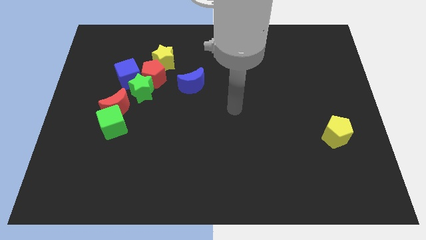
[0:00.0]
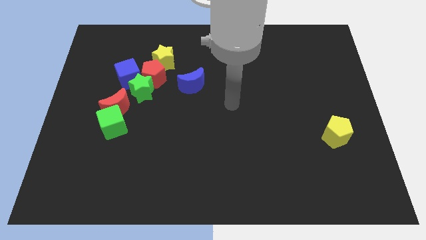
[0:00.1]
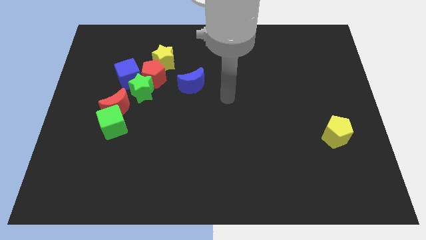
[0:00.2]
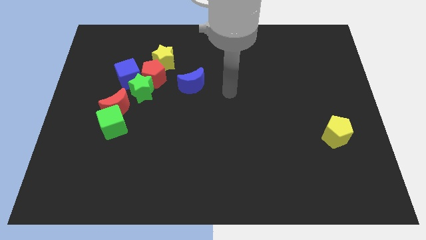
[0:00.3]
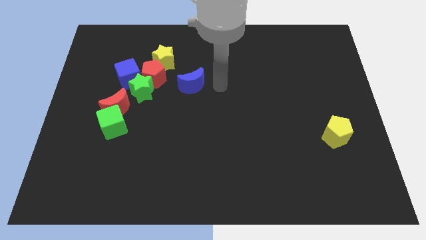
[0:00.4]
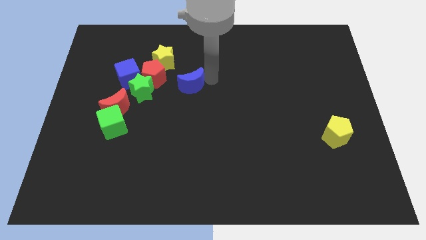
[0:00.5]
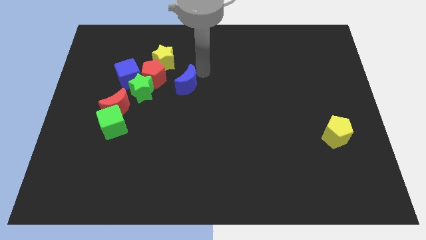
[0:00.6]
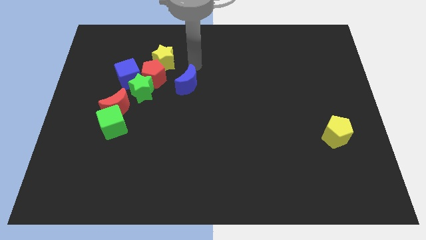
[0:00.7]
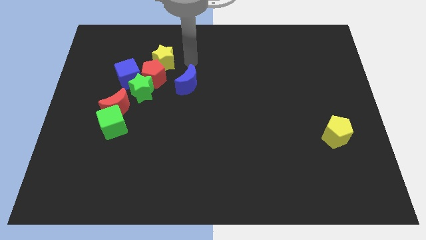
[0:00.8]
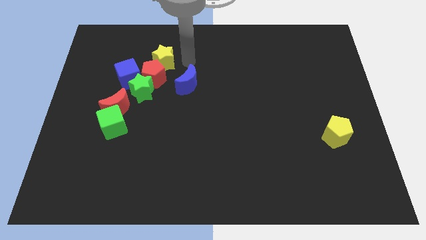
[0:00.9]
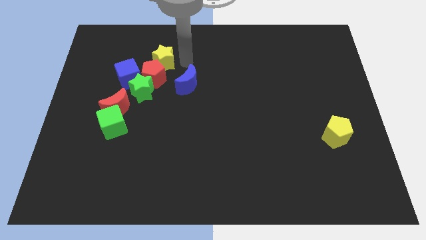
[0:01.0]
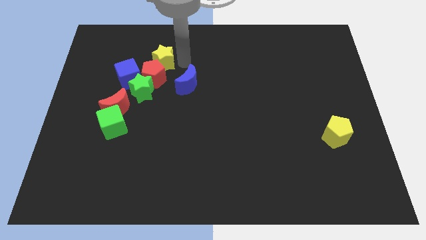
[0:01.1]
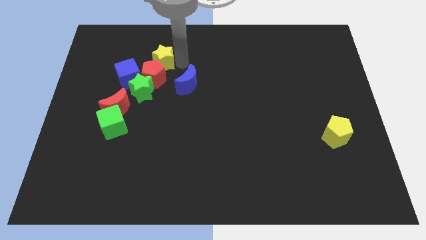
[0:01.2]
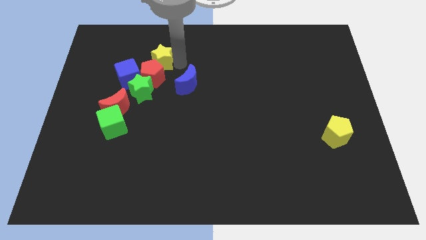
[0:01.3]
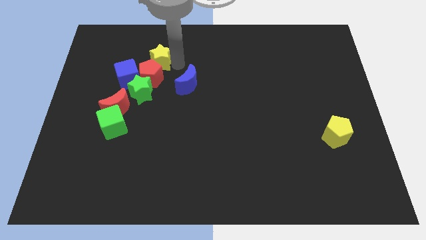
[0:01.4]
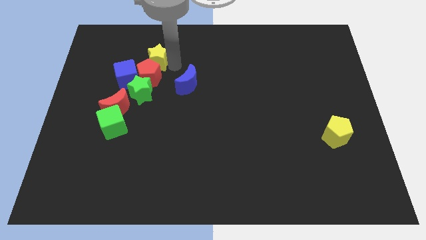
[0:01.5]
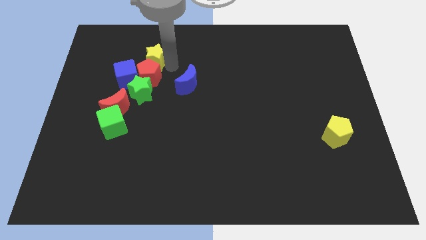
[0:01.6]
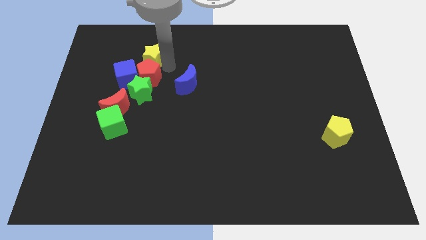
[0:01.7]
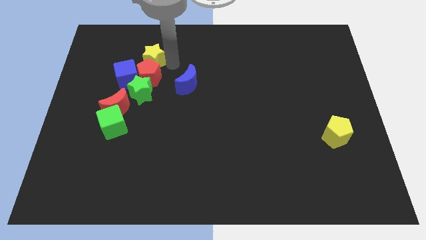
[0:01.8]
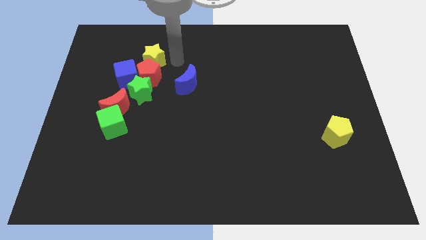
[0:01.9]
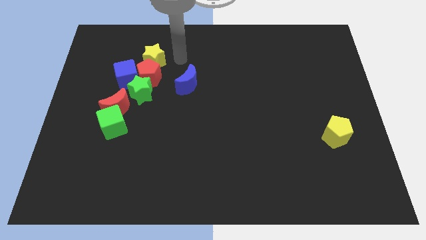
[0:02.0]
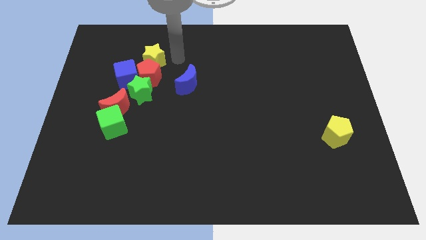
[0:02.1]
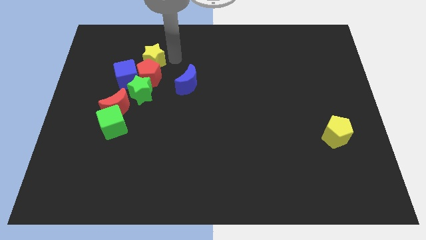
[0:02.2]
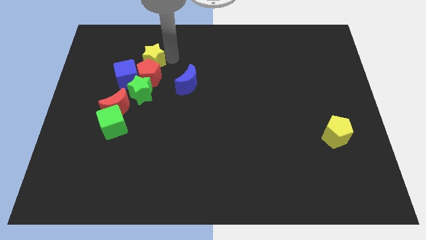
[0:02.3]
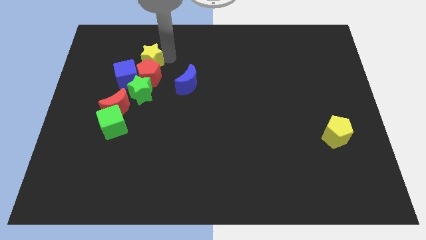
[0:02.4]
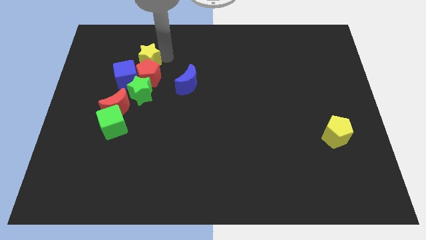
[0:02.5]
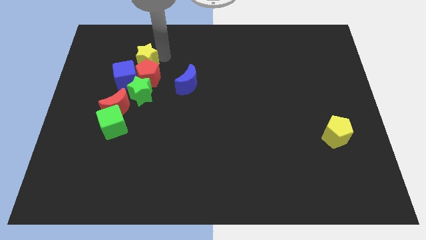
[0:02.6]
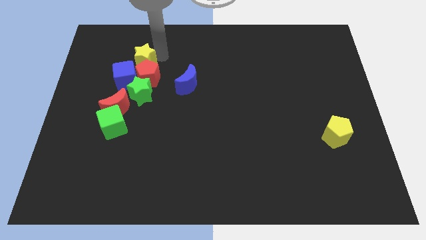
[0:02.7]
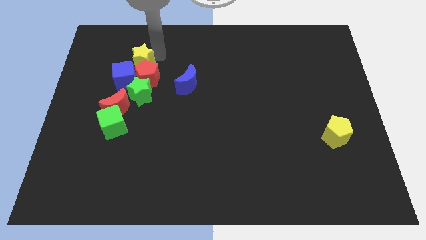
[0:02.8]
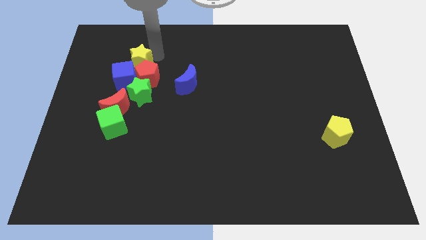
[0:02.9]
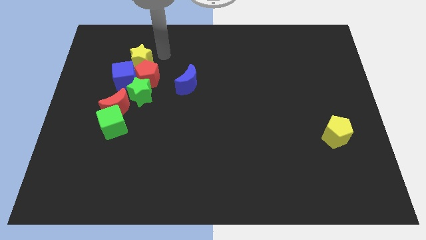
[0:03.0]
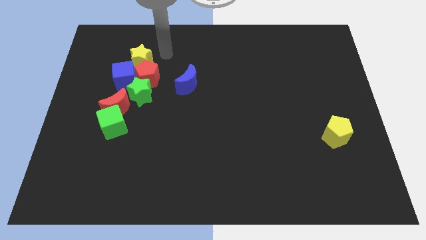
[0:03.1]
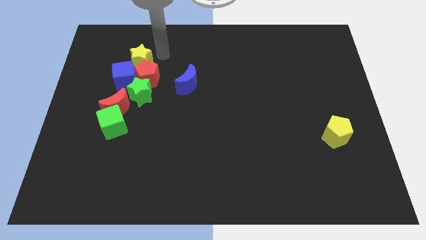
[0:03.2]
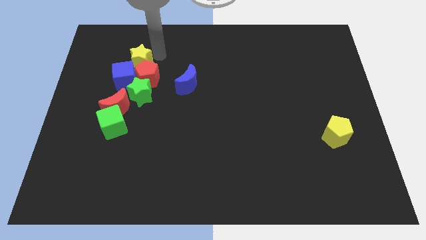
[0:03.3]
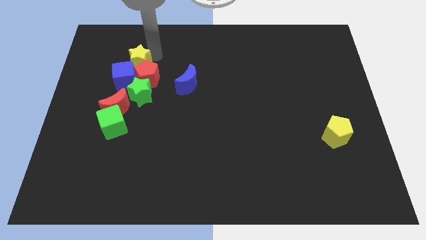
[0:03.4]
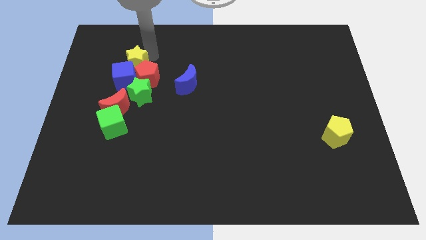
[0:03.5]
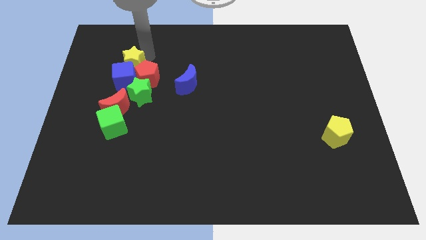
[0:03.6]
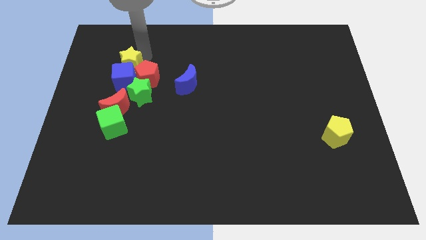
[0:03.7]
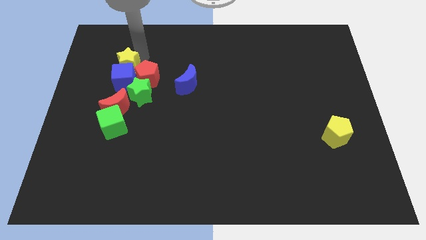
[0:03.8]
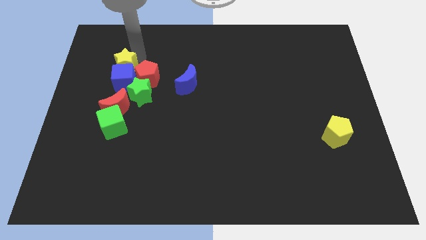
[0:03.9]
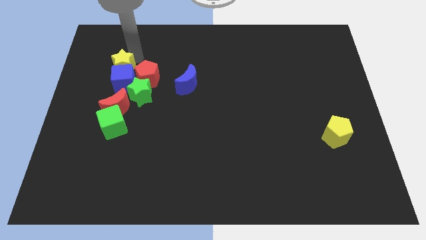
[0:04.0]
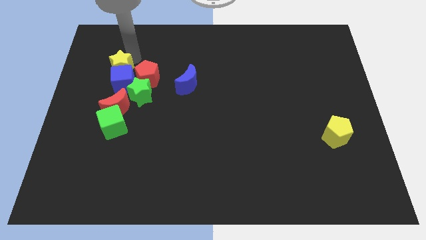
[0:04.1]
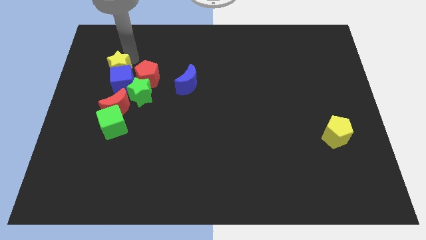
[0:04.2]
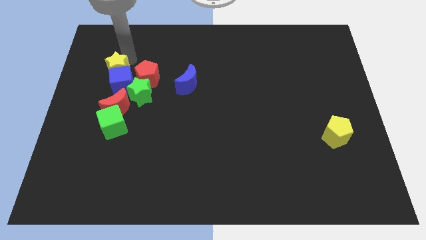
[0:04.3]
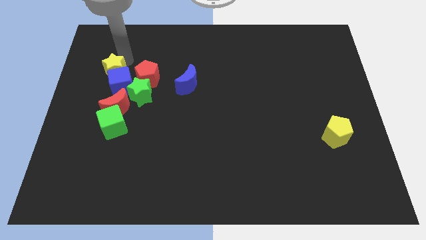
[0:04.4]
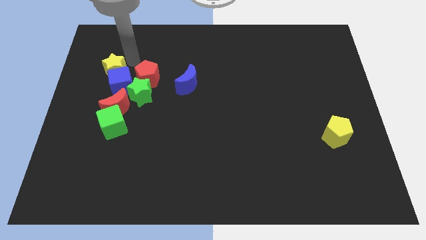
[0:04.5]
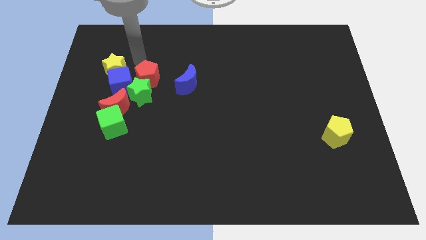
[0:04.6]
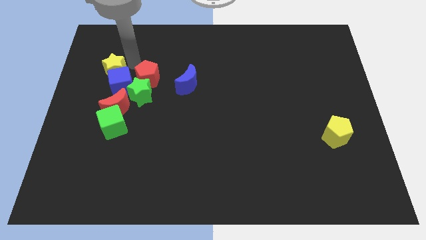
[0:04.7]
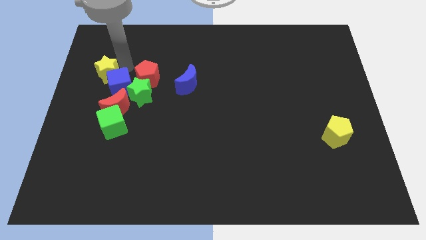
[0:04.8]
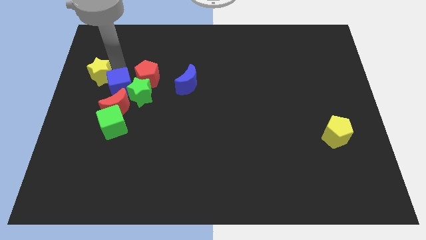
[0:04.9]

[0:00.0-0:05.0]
move the yellow star to the center left

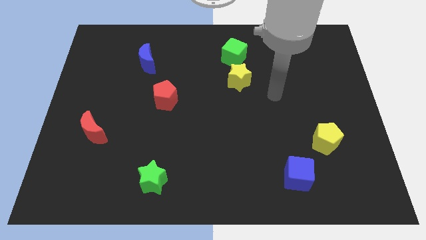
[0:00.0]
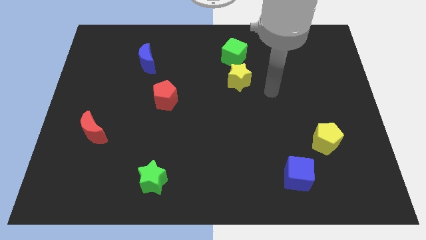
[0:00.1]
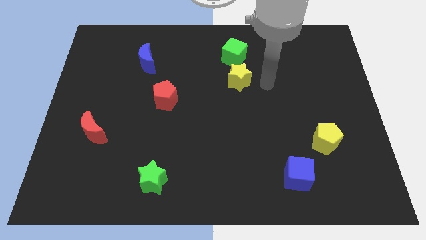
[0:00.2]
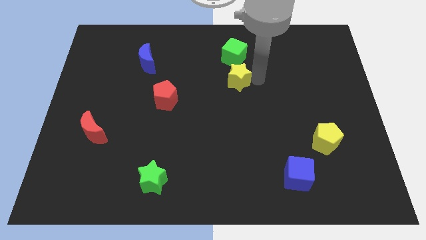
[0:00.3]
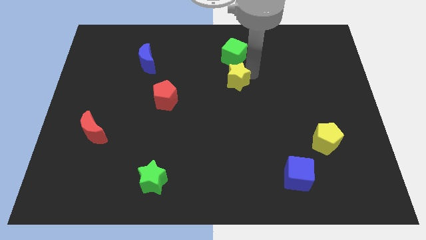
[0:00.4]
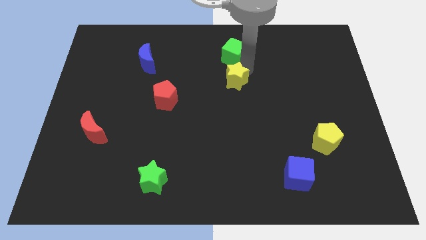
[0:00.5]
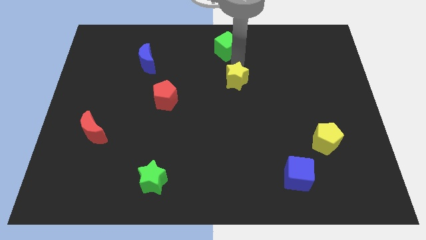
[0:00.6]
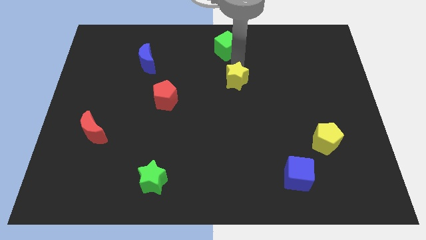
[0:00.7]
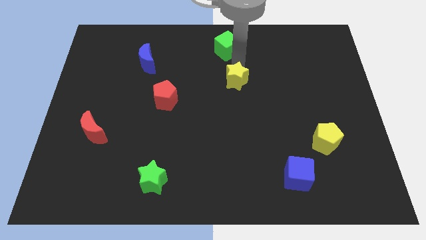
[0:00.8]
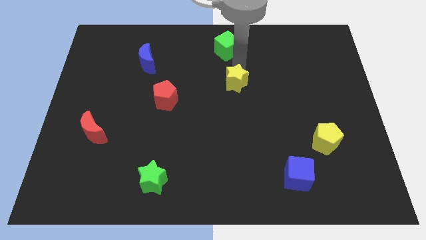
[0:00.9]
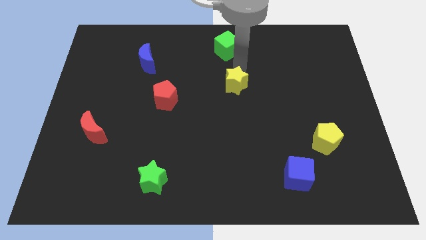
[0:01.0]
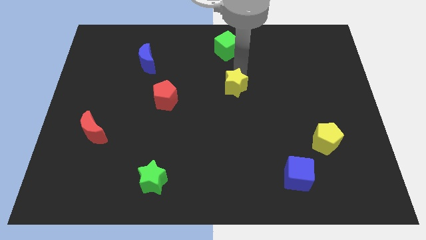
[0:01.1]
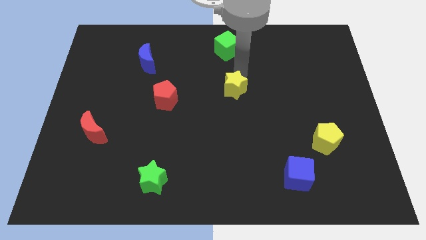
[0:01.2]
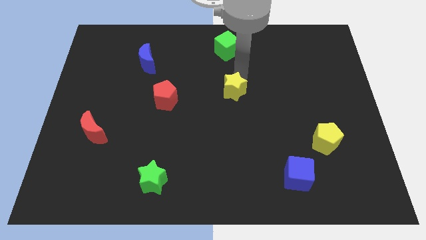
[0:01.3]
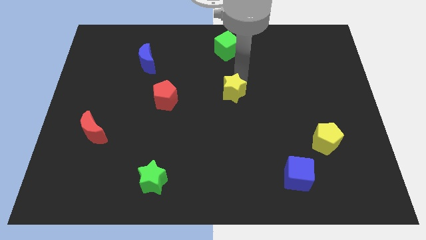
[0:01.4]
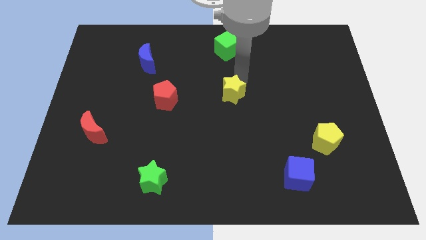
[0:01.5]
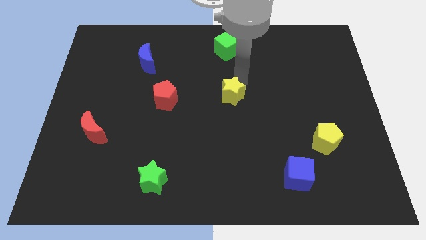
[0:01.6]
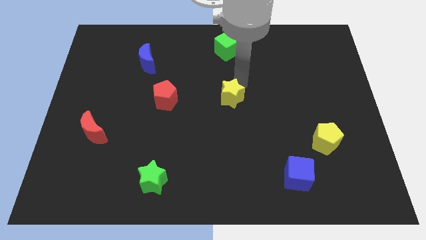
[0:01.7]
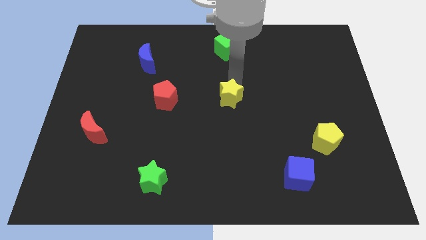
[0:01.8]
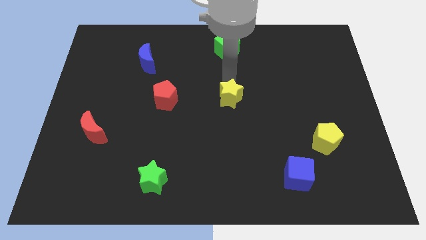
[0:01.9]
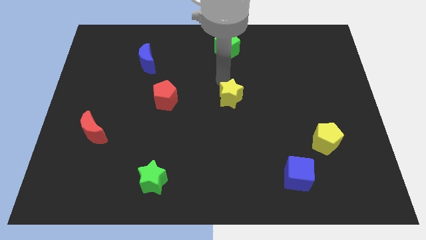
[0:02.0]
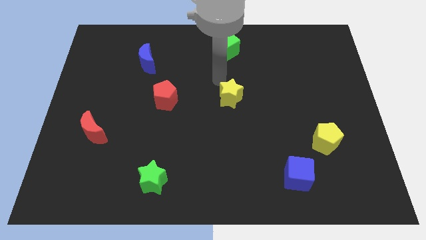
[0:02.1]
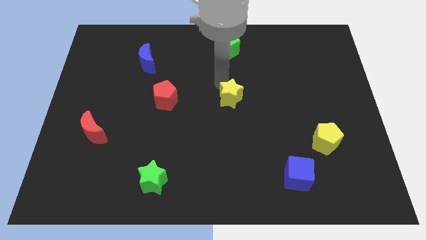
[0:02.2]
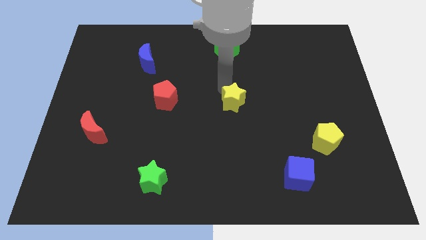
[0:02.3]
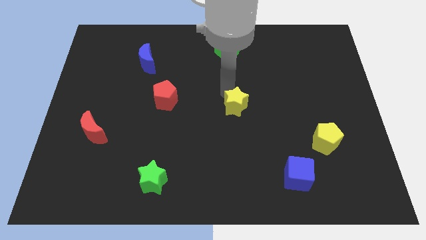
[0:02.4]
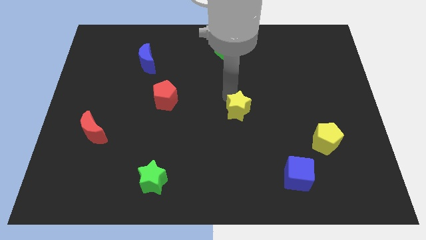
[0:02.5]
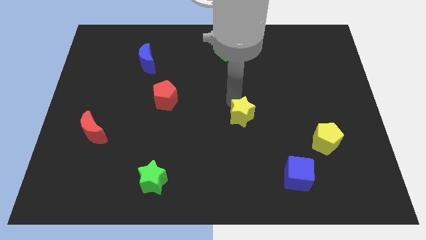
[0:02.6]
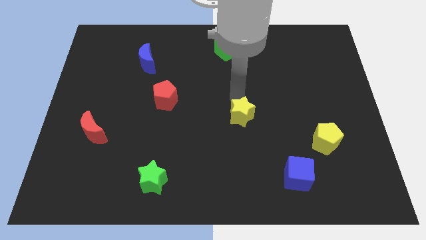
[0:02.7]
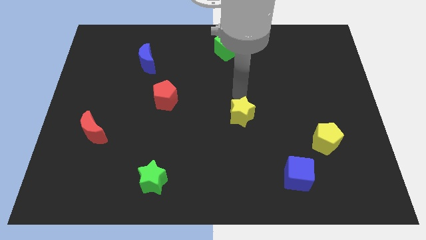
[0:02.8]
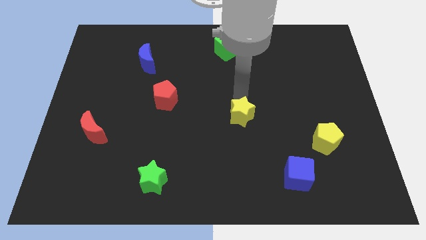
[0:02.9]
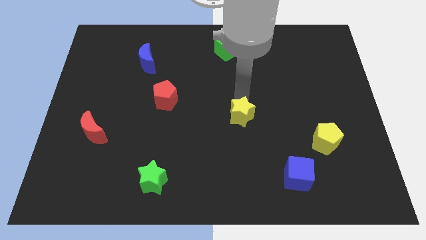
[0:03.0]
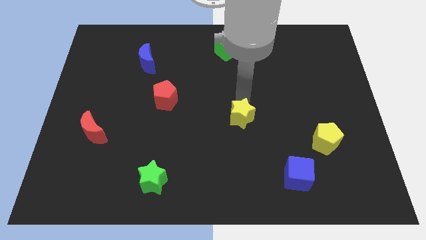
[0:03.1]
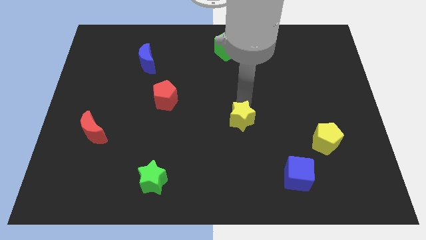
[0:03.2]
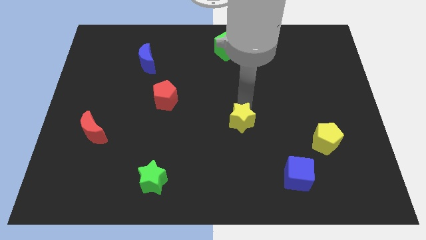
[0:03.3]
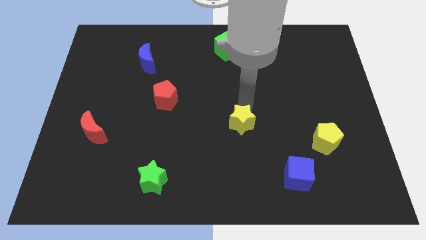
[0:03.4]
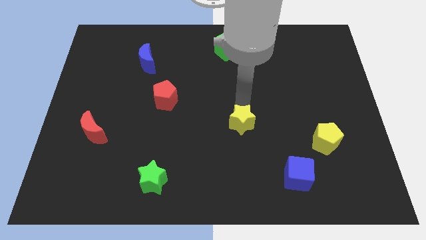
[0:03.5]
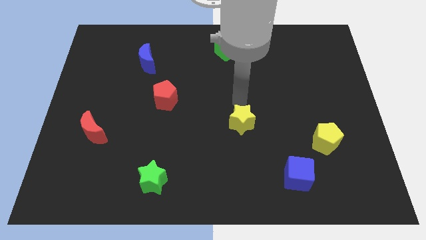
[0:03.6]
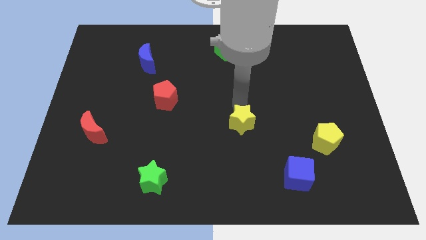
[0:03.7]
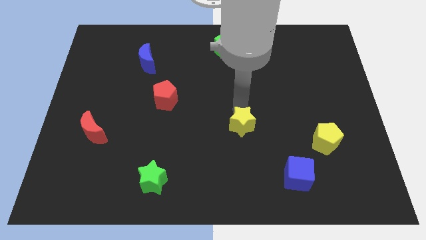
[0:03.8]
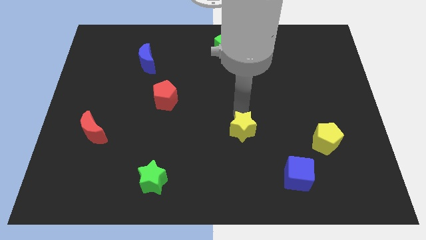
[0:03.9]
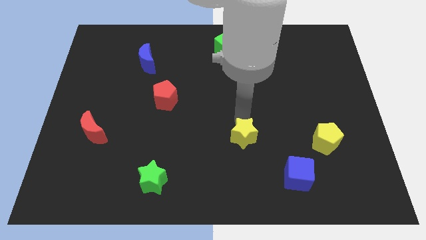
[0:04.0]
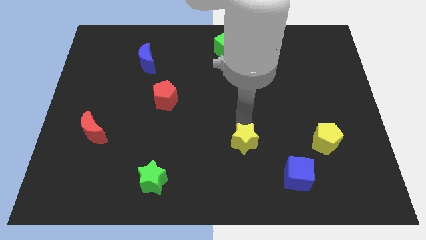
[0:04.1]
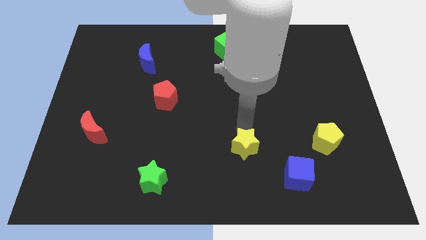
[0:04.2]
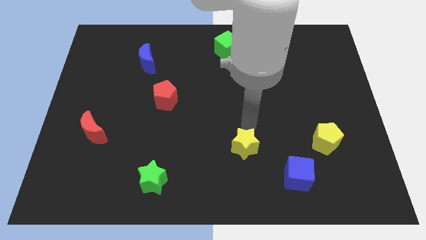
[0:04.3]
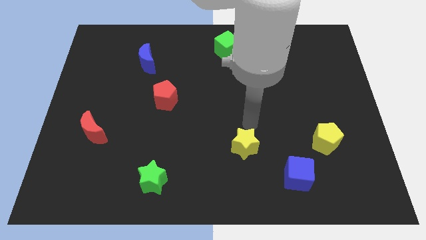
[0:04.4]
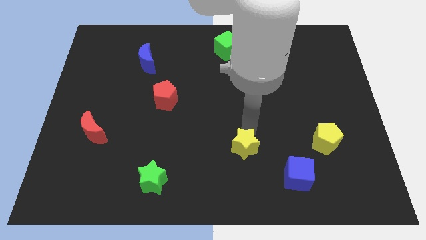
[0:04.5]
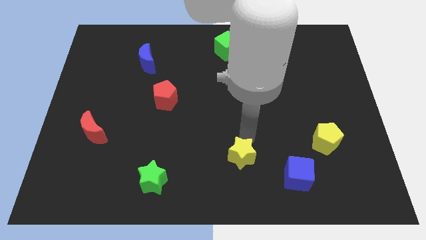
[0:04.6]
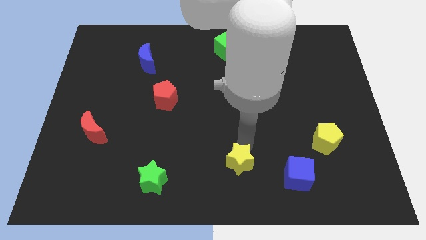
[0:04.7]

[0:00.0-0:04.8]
push the yellow star to the bottom
